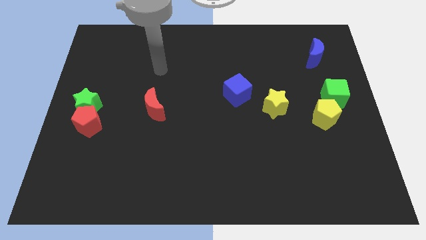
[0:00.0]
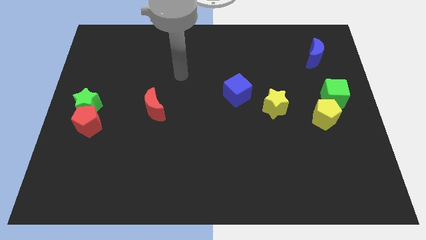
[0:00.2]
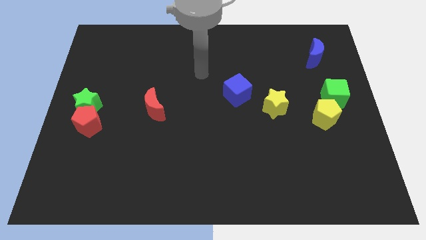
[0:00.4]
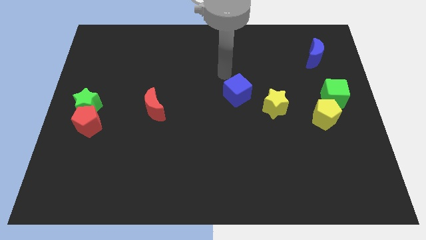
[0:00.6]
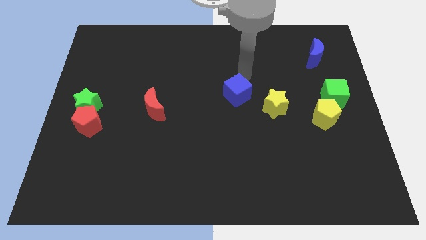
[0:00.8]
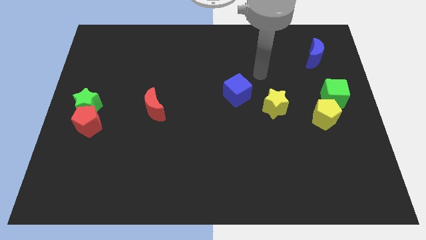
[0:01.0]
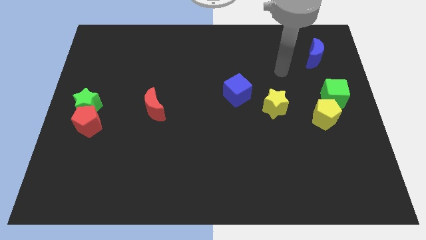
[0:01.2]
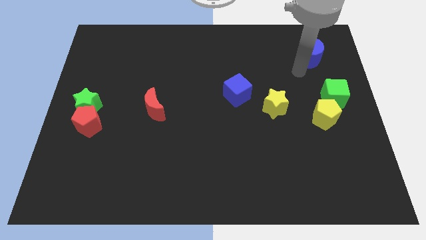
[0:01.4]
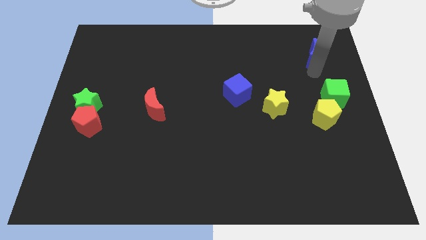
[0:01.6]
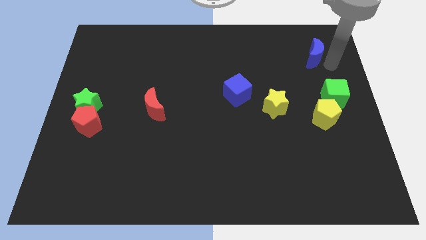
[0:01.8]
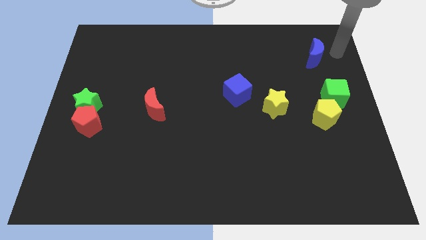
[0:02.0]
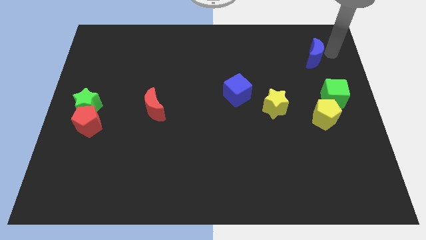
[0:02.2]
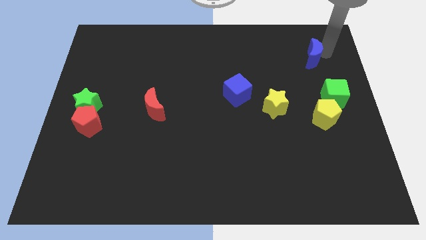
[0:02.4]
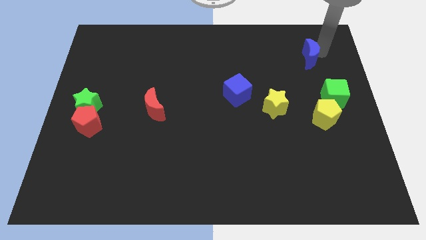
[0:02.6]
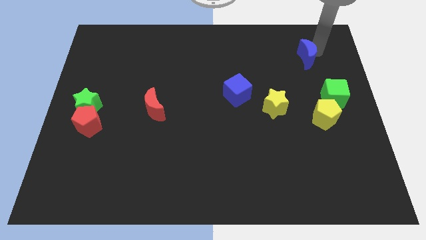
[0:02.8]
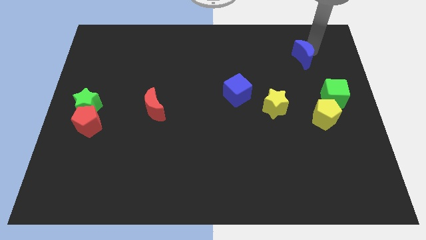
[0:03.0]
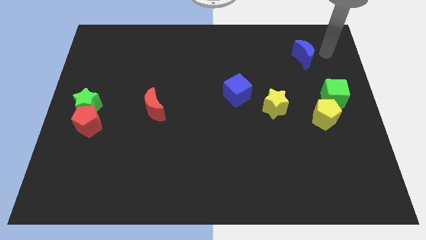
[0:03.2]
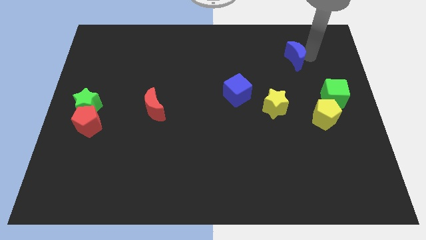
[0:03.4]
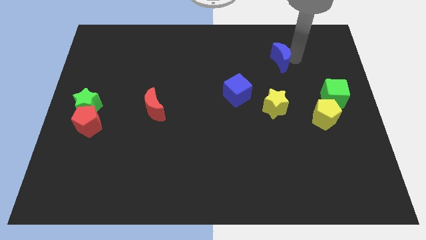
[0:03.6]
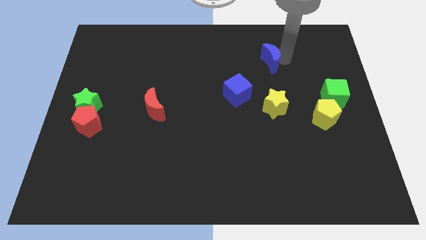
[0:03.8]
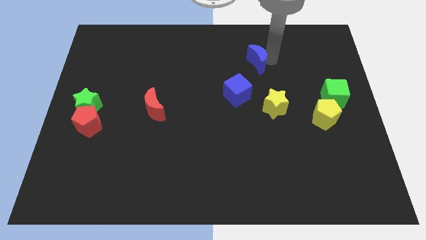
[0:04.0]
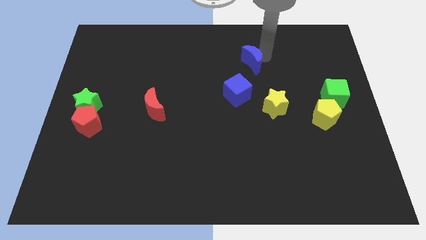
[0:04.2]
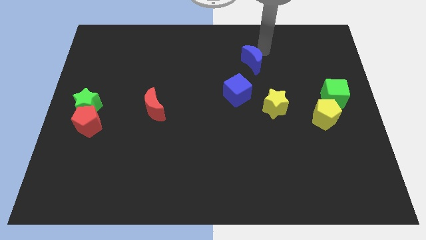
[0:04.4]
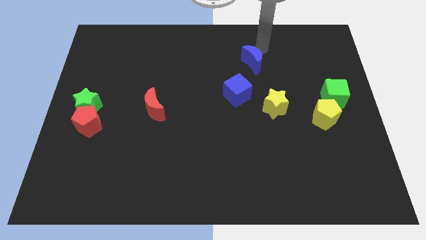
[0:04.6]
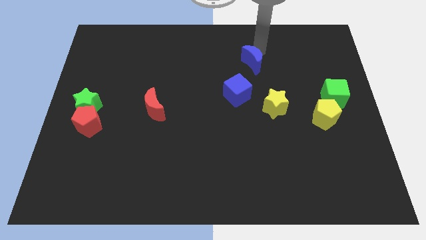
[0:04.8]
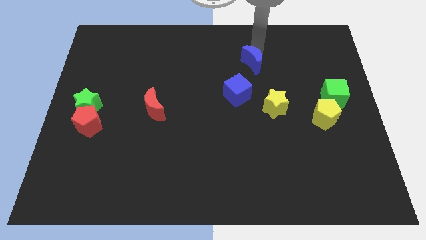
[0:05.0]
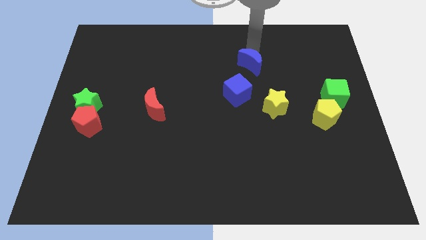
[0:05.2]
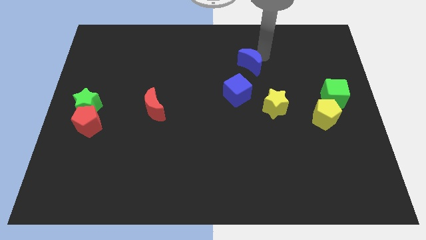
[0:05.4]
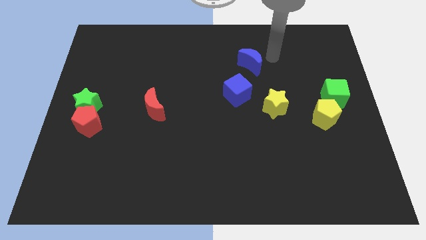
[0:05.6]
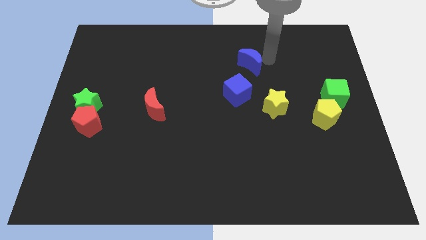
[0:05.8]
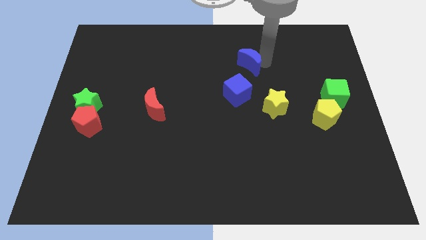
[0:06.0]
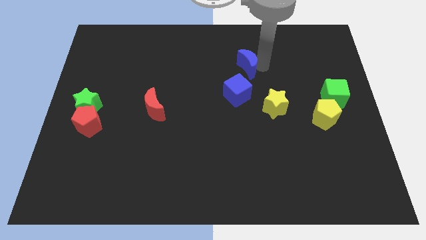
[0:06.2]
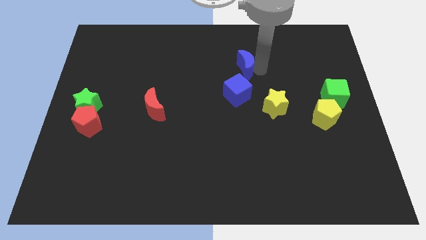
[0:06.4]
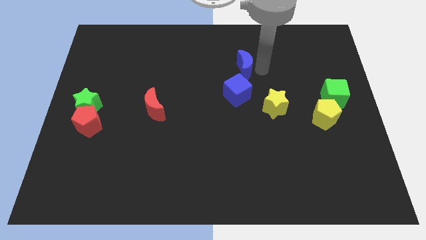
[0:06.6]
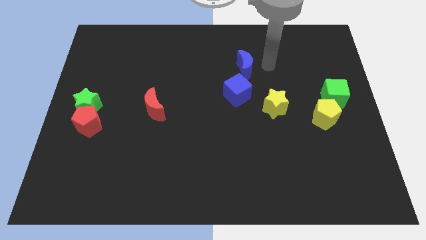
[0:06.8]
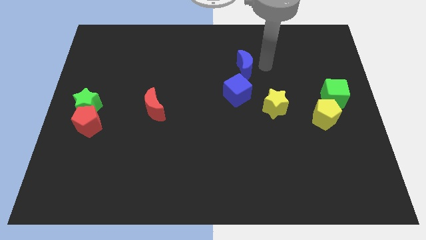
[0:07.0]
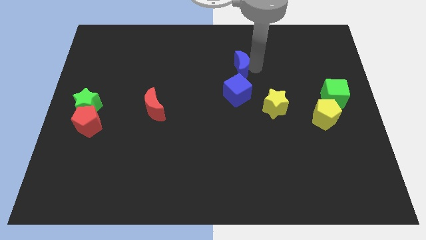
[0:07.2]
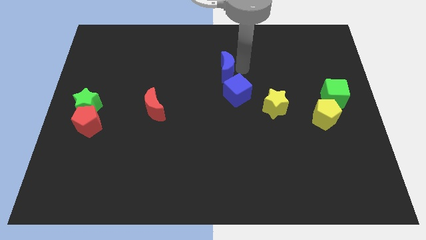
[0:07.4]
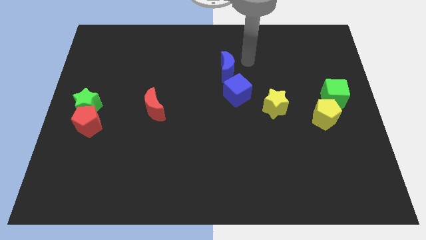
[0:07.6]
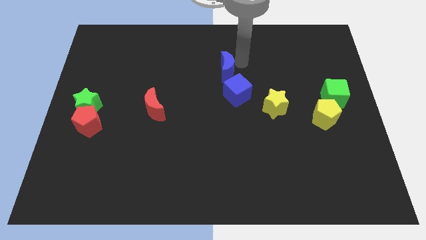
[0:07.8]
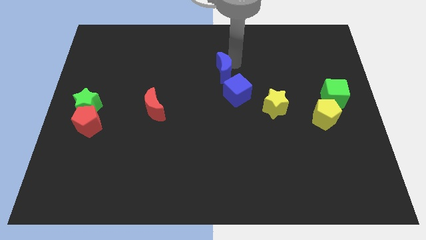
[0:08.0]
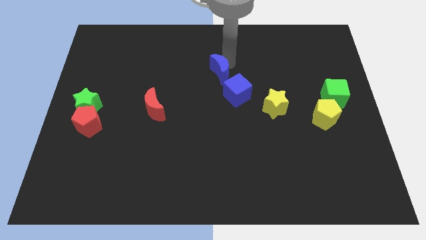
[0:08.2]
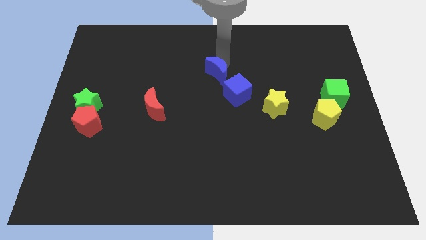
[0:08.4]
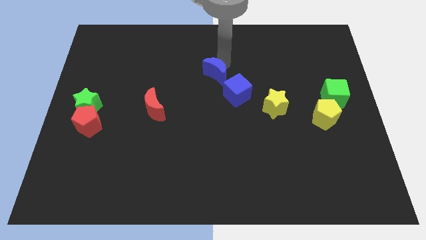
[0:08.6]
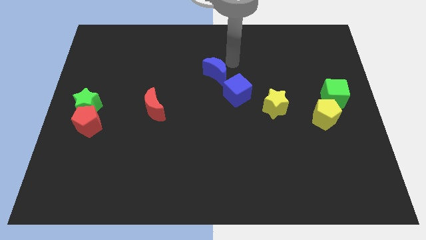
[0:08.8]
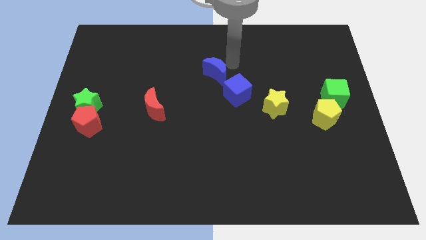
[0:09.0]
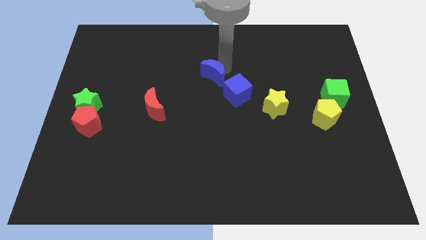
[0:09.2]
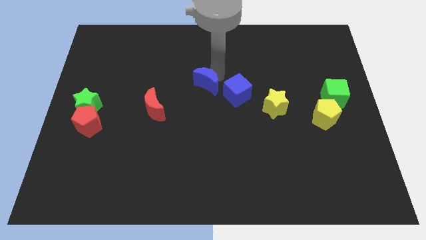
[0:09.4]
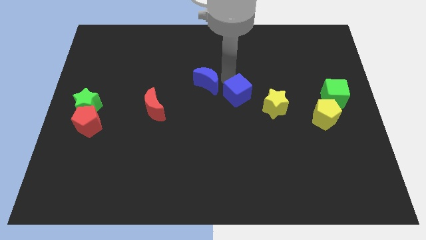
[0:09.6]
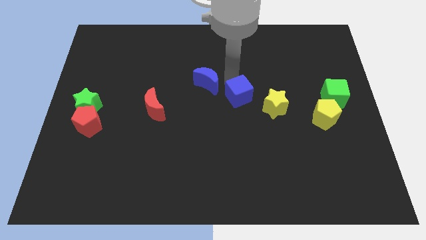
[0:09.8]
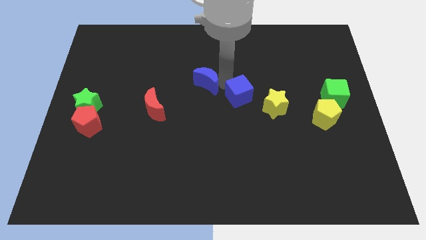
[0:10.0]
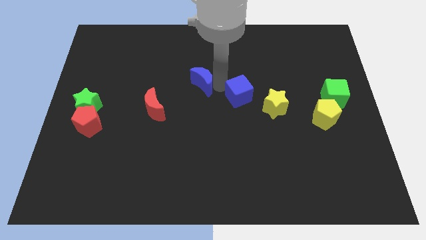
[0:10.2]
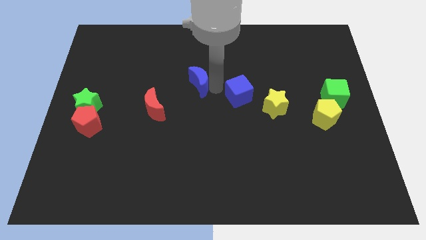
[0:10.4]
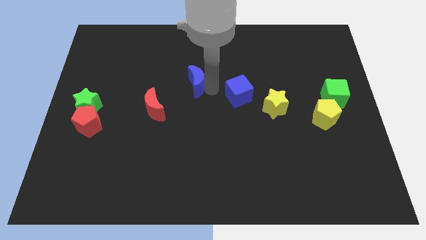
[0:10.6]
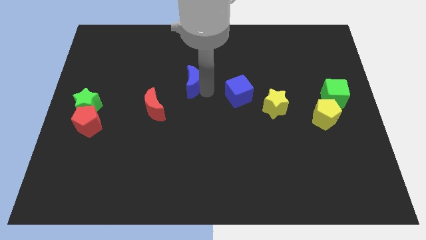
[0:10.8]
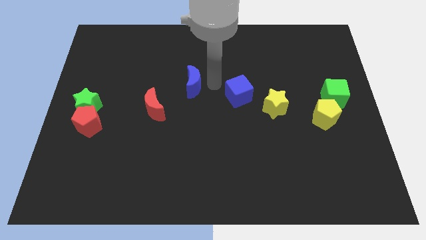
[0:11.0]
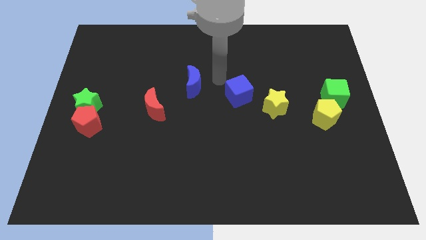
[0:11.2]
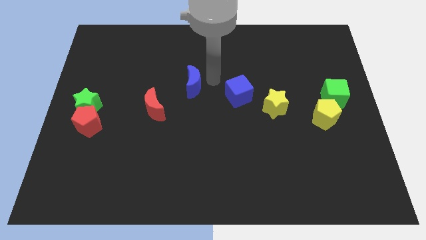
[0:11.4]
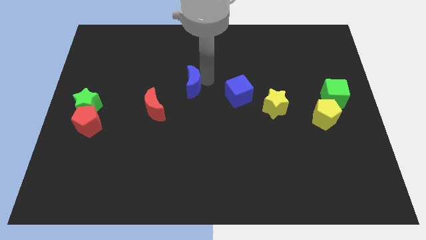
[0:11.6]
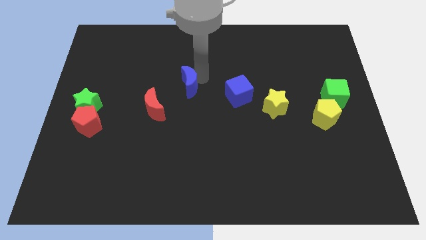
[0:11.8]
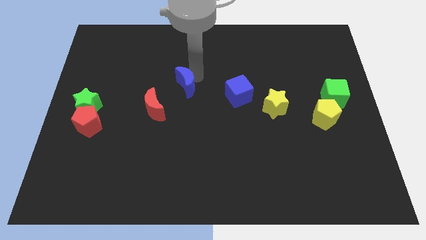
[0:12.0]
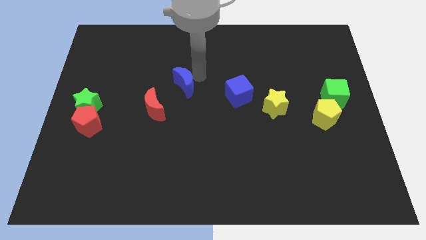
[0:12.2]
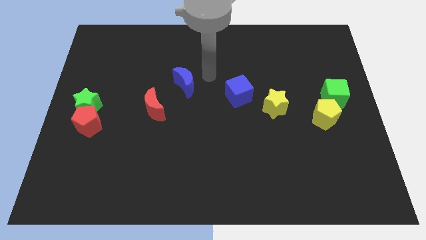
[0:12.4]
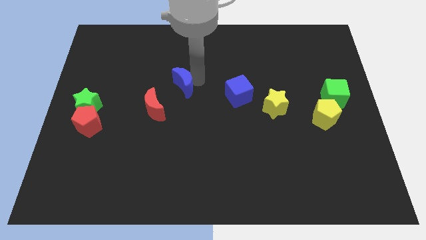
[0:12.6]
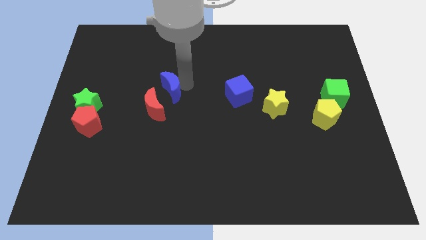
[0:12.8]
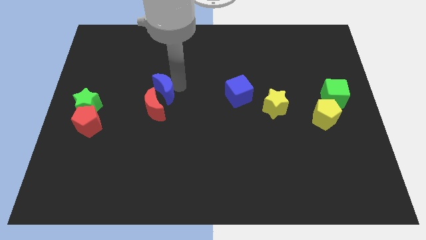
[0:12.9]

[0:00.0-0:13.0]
put the blue moon next to the red moon

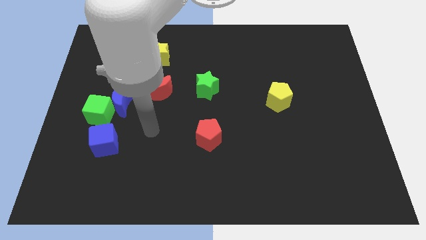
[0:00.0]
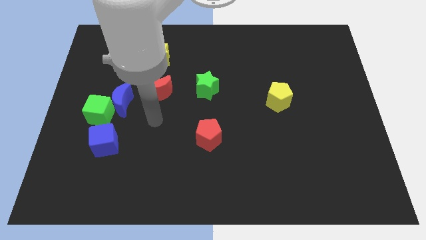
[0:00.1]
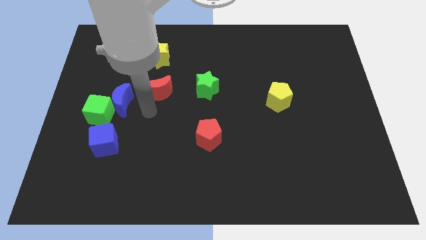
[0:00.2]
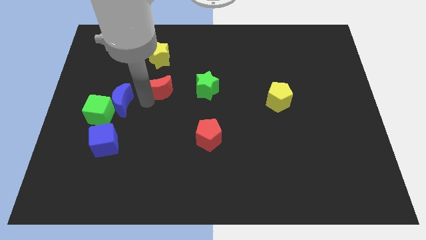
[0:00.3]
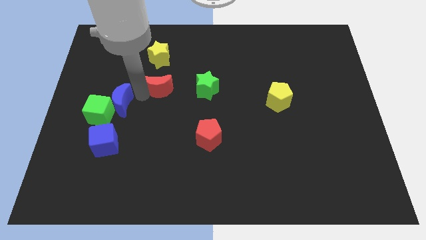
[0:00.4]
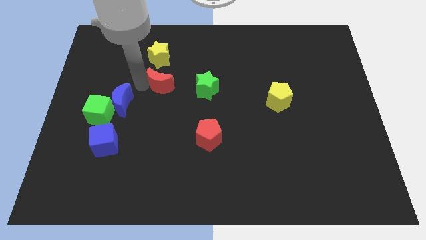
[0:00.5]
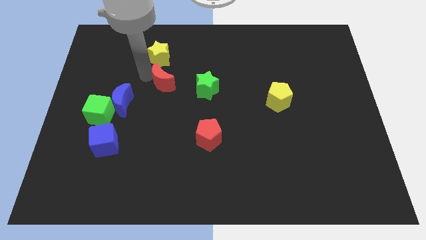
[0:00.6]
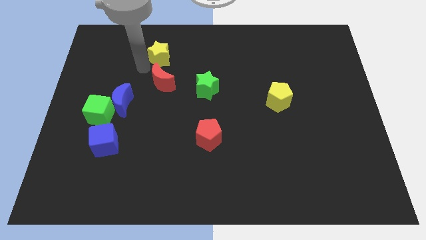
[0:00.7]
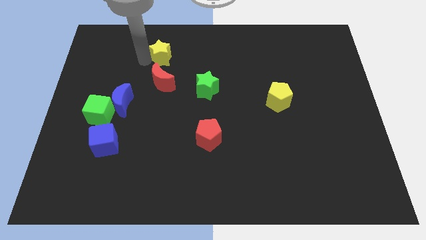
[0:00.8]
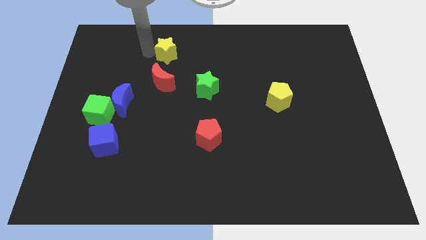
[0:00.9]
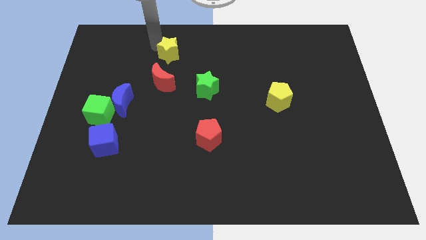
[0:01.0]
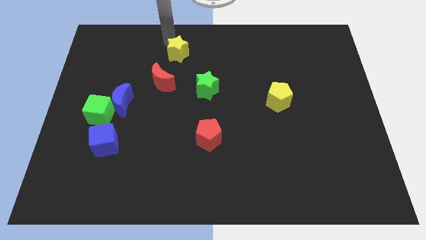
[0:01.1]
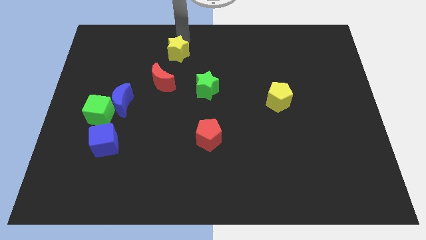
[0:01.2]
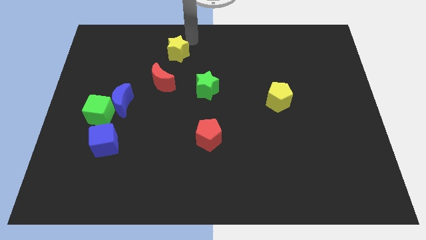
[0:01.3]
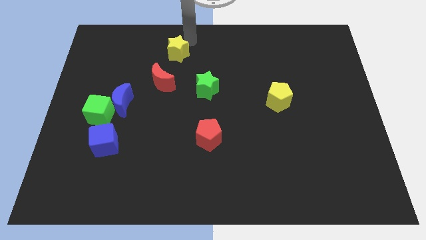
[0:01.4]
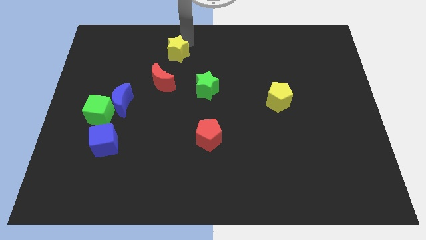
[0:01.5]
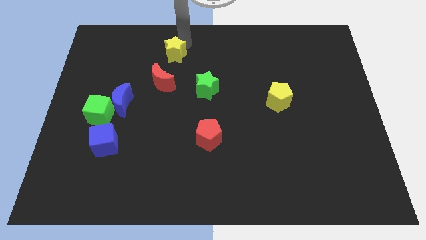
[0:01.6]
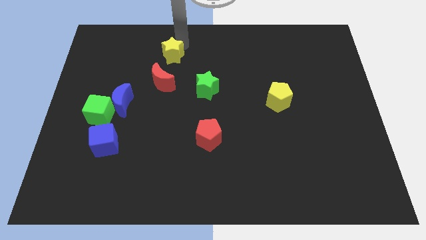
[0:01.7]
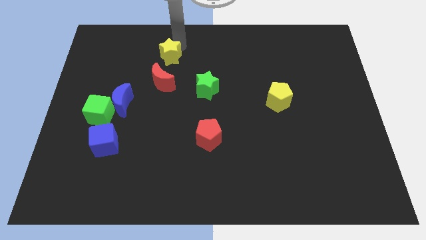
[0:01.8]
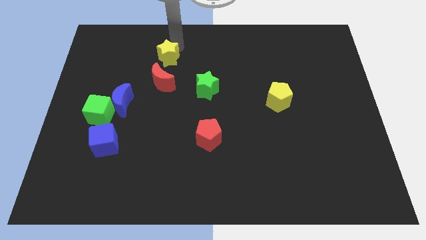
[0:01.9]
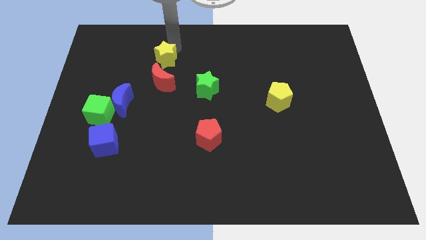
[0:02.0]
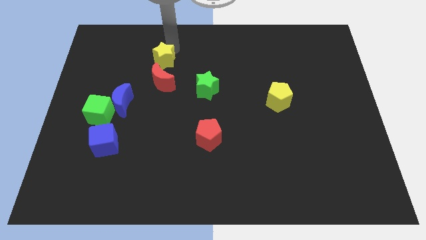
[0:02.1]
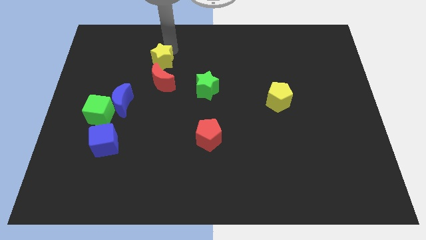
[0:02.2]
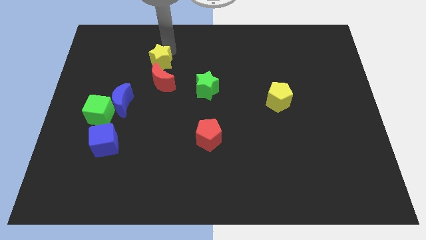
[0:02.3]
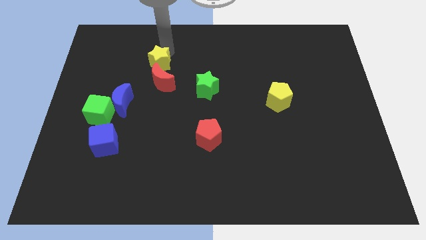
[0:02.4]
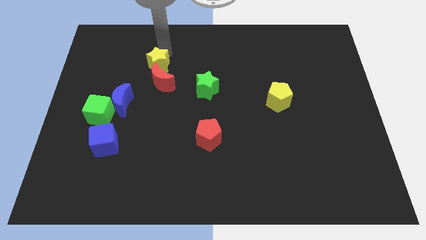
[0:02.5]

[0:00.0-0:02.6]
move the yellow star to the red moon
